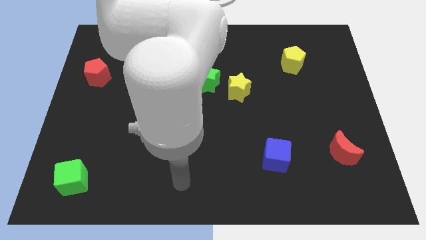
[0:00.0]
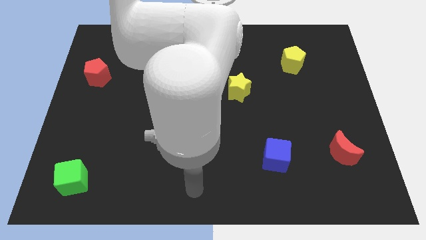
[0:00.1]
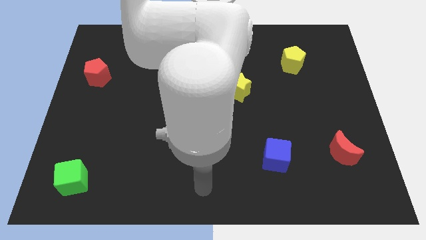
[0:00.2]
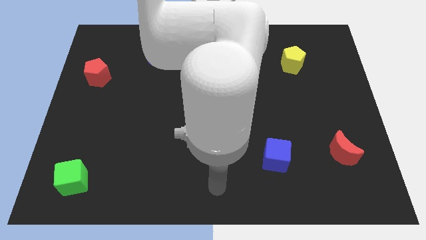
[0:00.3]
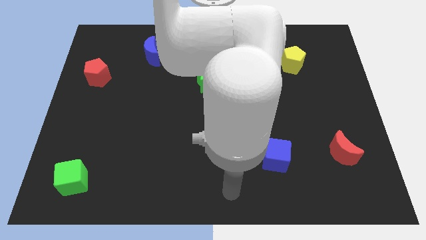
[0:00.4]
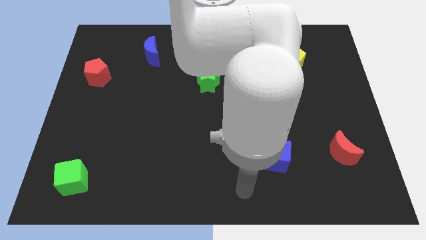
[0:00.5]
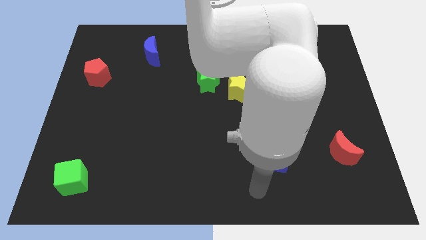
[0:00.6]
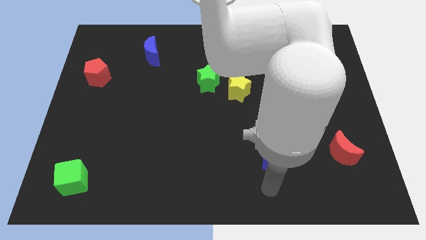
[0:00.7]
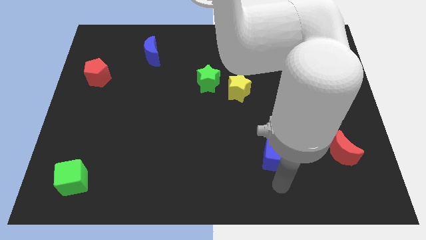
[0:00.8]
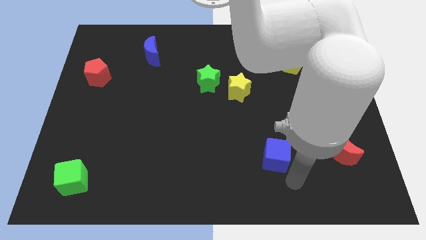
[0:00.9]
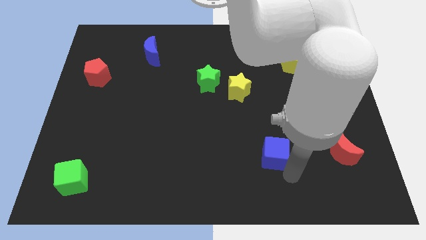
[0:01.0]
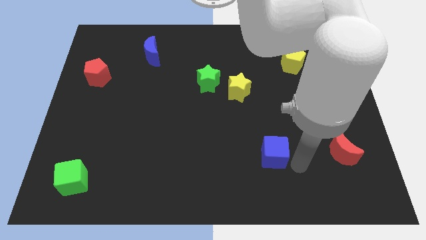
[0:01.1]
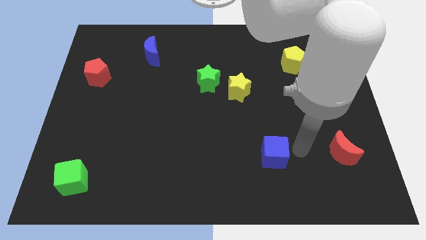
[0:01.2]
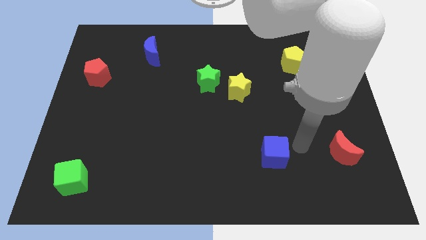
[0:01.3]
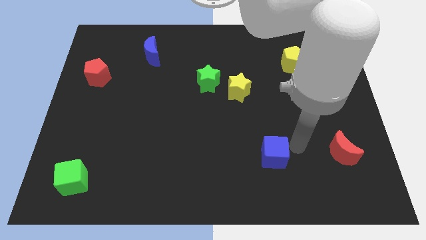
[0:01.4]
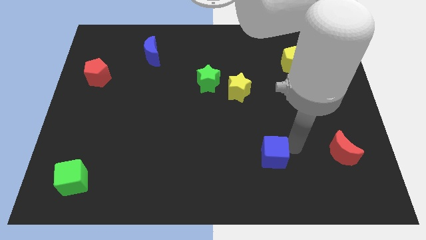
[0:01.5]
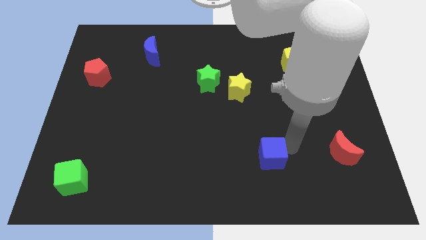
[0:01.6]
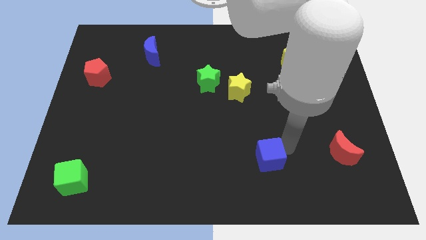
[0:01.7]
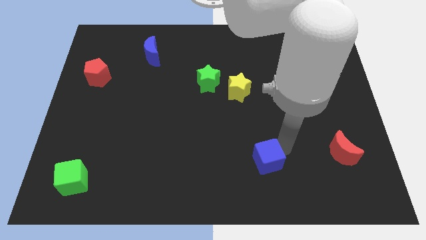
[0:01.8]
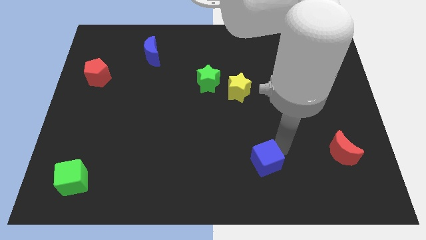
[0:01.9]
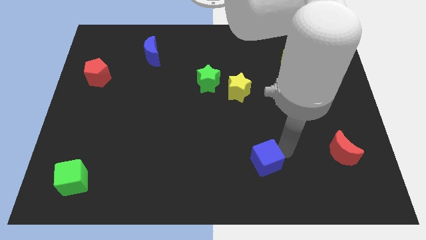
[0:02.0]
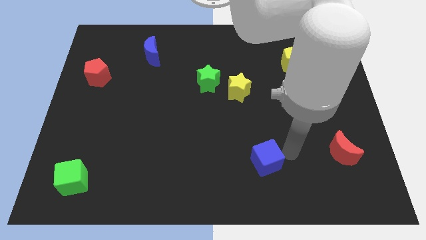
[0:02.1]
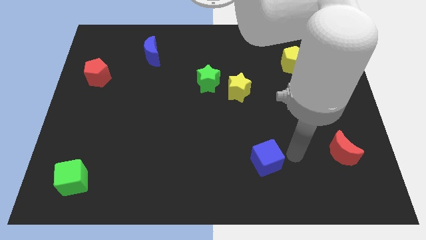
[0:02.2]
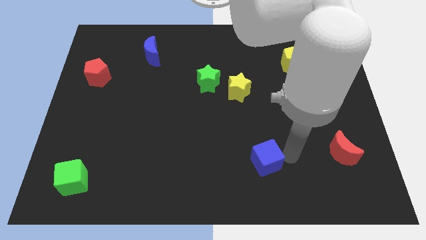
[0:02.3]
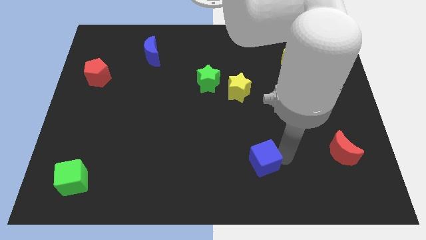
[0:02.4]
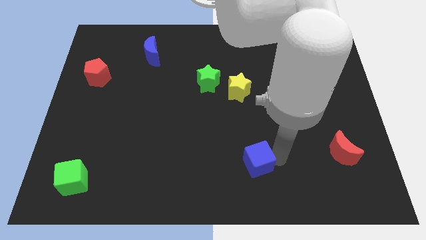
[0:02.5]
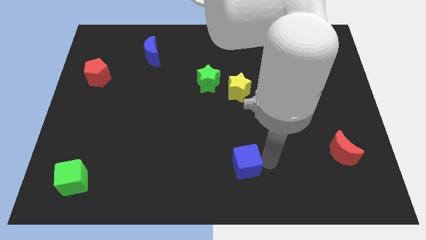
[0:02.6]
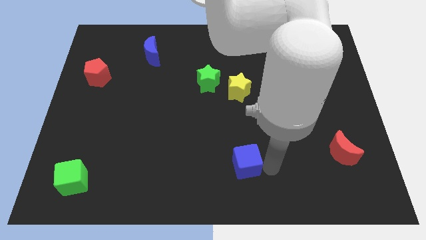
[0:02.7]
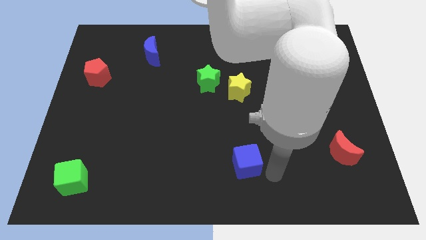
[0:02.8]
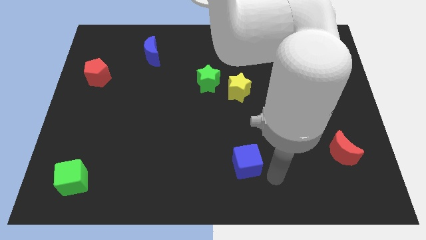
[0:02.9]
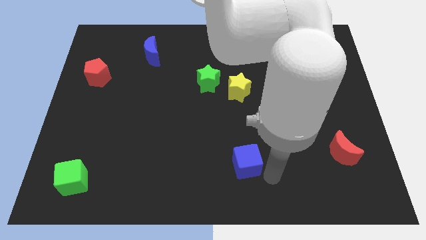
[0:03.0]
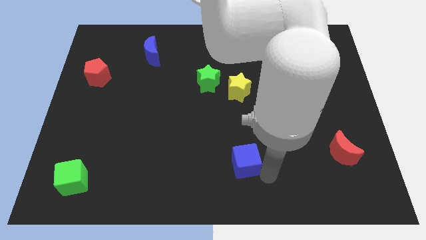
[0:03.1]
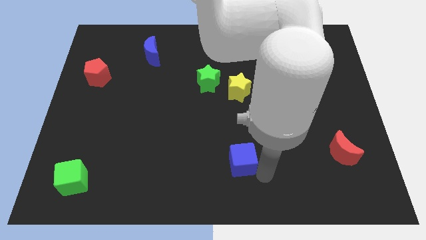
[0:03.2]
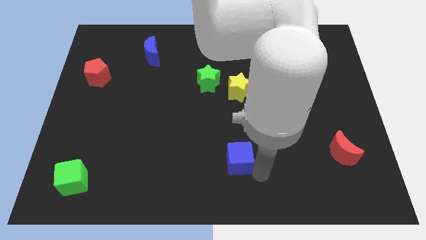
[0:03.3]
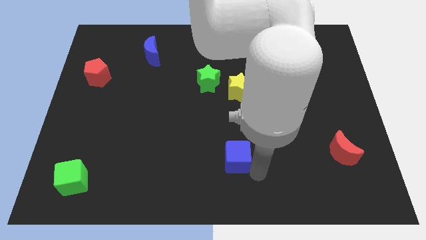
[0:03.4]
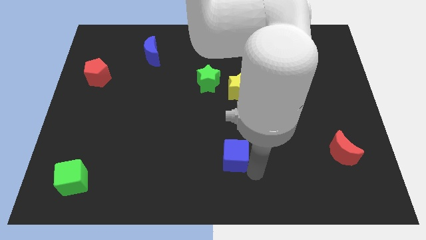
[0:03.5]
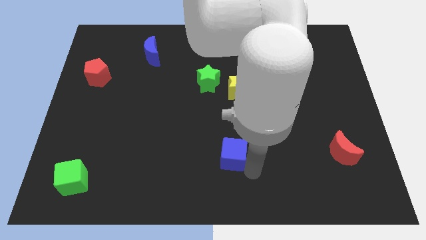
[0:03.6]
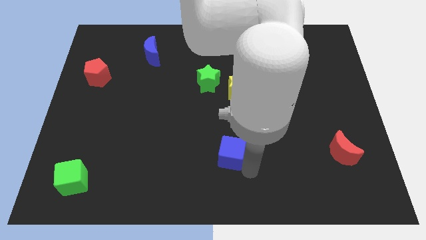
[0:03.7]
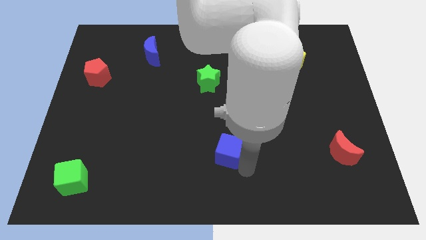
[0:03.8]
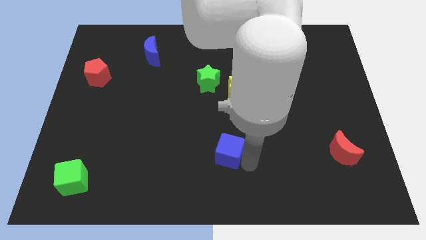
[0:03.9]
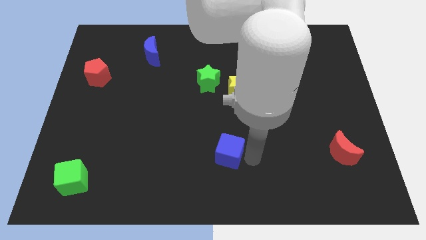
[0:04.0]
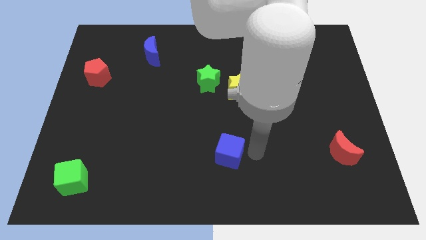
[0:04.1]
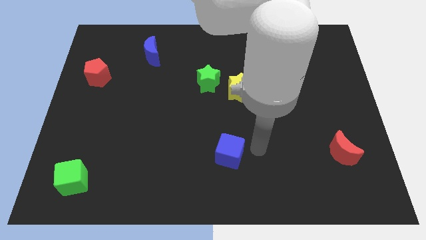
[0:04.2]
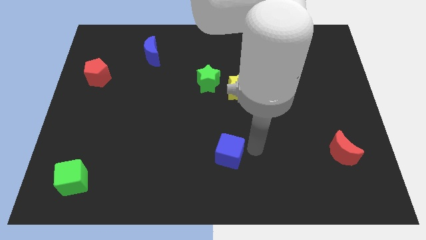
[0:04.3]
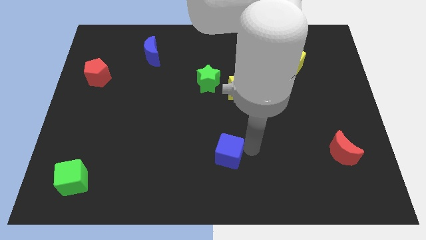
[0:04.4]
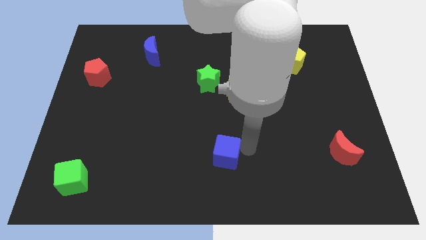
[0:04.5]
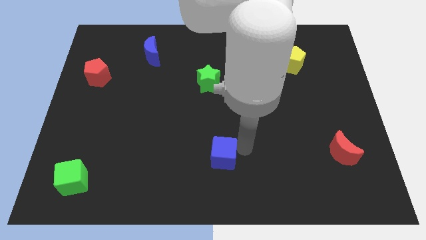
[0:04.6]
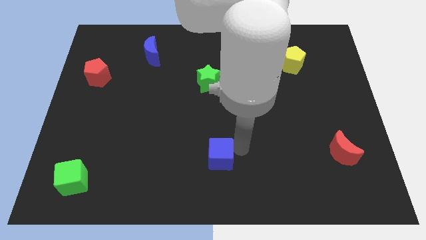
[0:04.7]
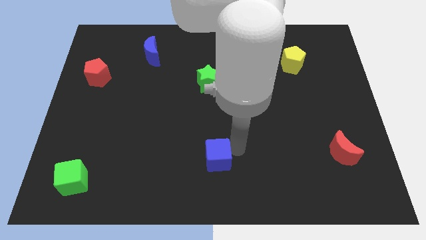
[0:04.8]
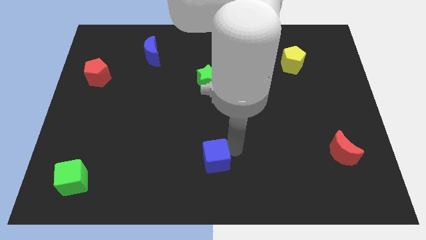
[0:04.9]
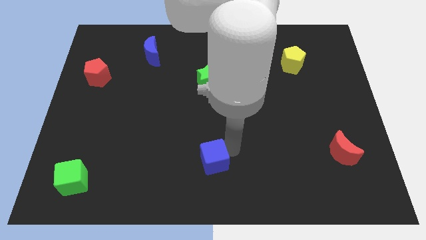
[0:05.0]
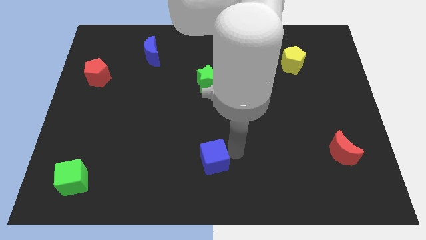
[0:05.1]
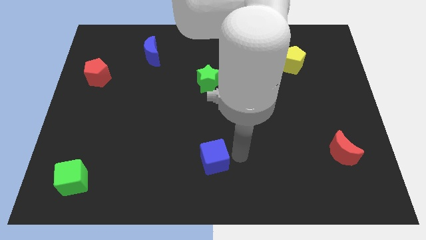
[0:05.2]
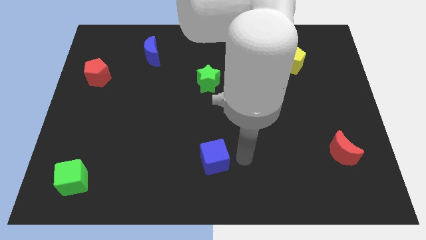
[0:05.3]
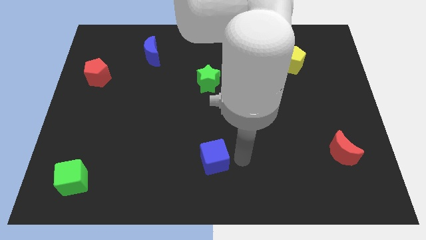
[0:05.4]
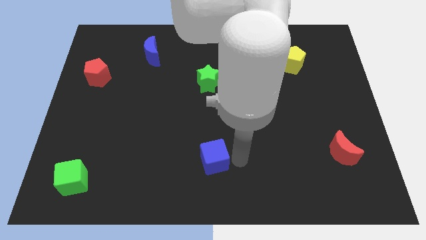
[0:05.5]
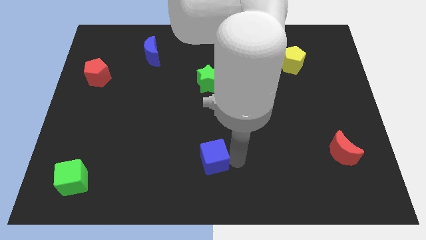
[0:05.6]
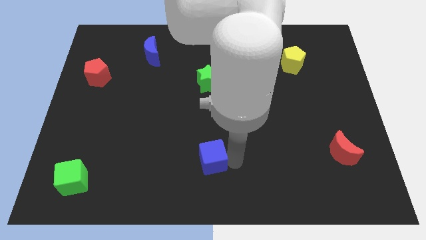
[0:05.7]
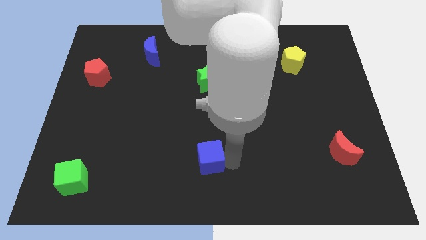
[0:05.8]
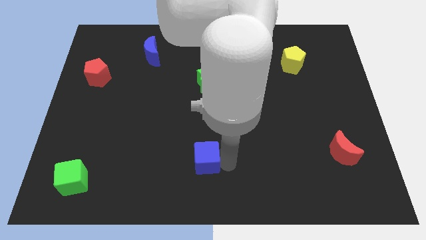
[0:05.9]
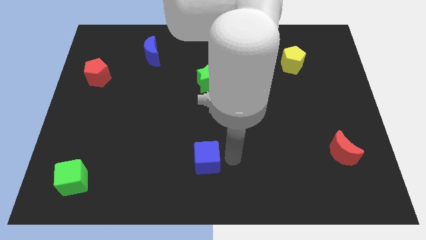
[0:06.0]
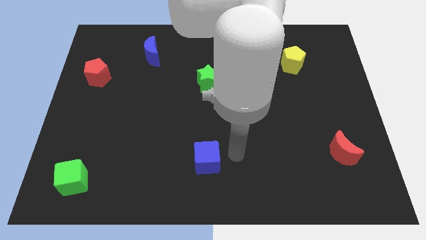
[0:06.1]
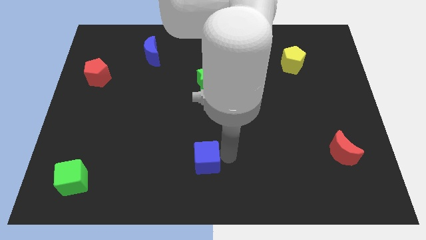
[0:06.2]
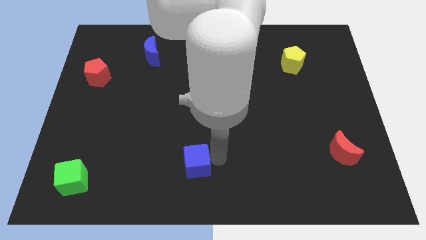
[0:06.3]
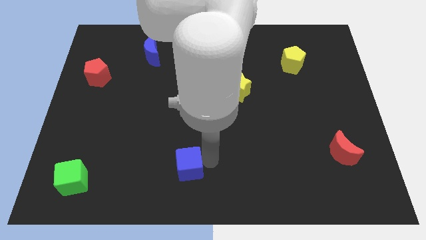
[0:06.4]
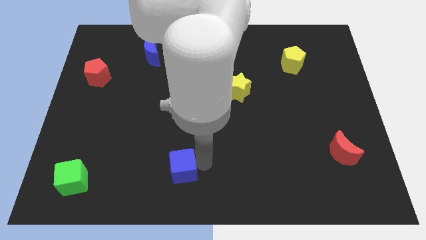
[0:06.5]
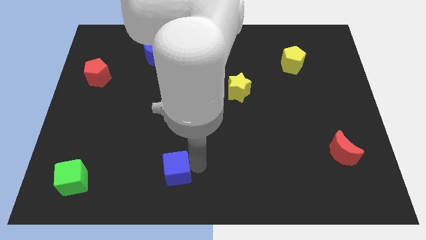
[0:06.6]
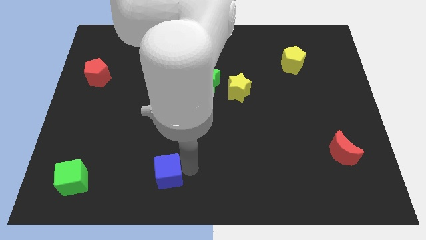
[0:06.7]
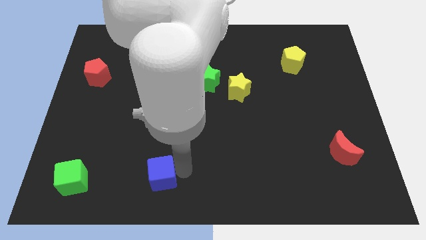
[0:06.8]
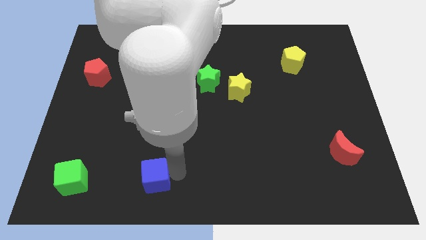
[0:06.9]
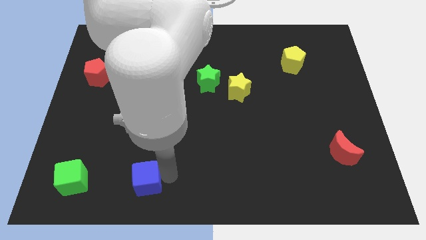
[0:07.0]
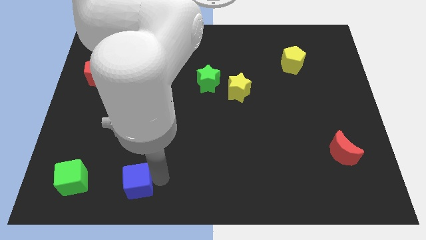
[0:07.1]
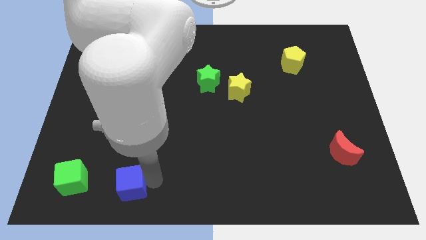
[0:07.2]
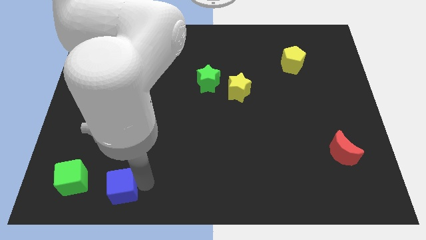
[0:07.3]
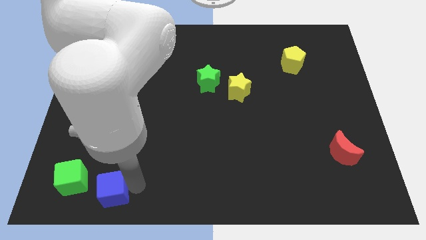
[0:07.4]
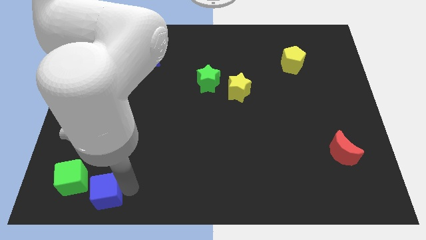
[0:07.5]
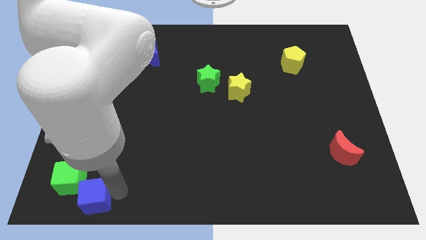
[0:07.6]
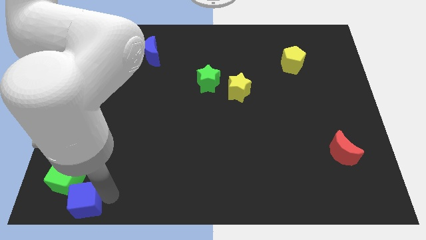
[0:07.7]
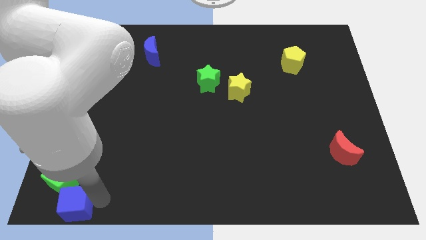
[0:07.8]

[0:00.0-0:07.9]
slide the blue cube to the bottom left corner
